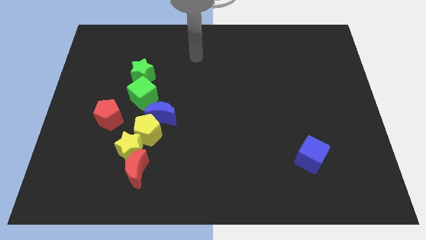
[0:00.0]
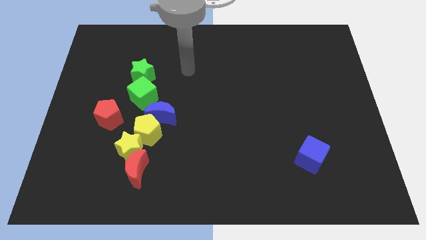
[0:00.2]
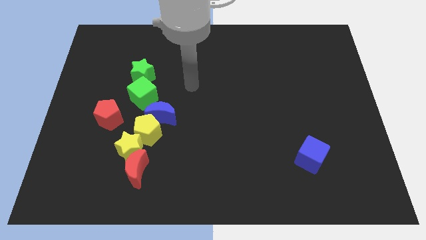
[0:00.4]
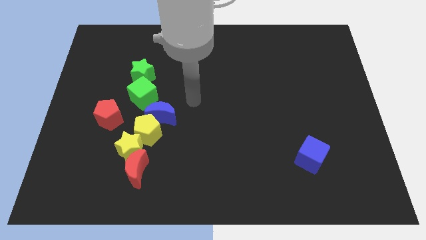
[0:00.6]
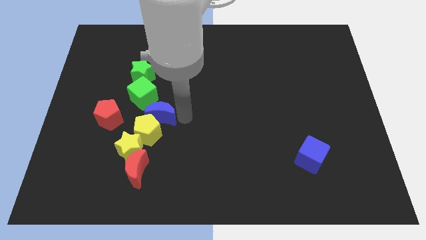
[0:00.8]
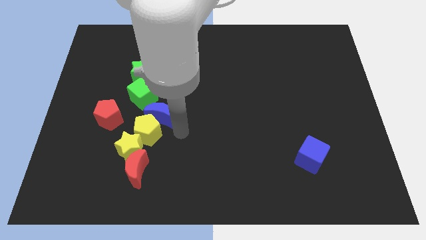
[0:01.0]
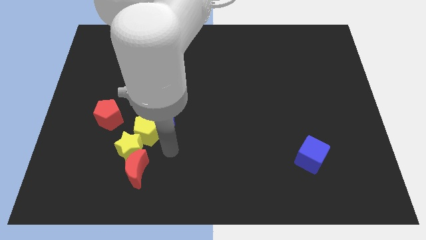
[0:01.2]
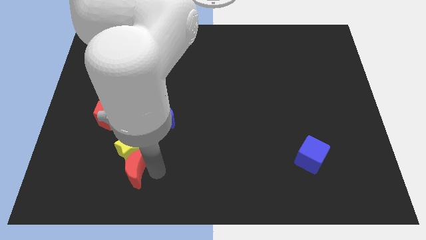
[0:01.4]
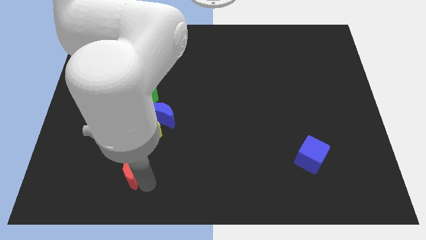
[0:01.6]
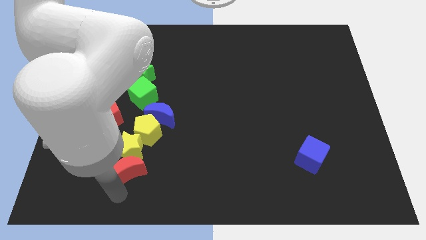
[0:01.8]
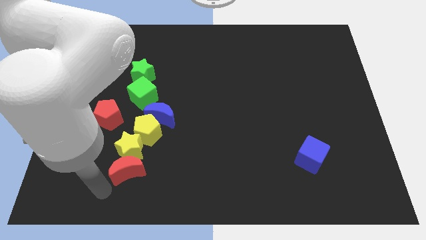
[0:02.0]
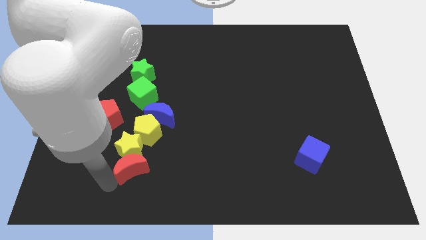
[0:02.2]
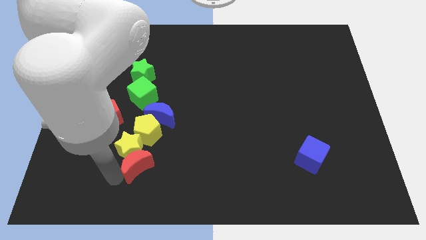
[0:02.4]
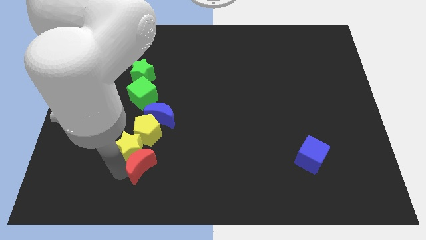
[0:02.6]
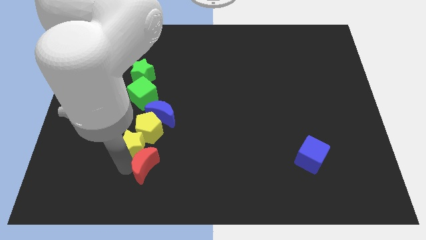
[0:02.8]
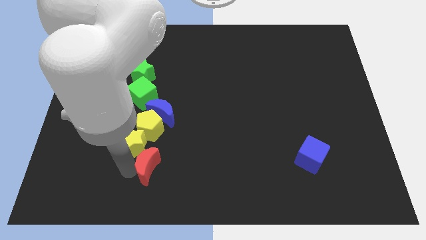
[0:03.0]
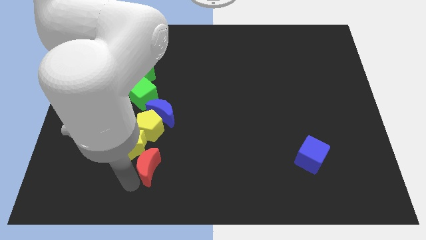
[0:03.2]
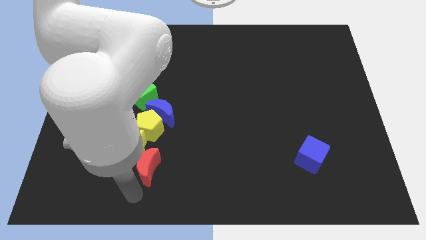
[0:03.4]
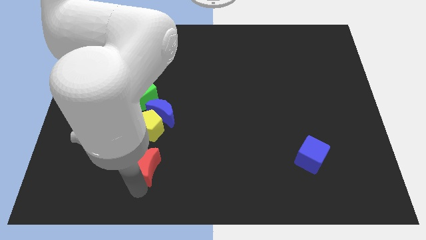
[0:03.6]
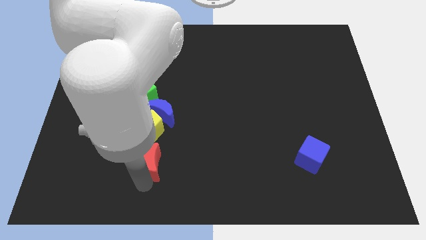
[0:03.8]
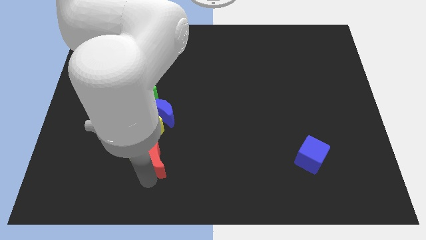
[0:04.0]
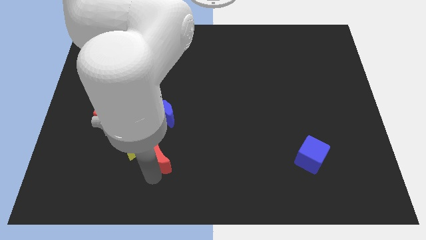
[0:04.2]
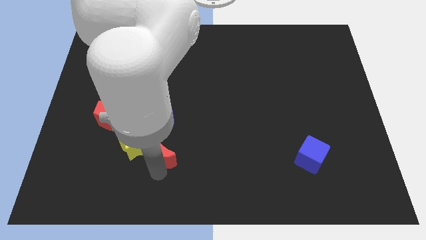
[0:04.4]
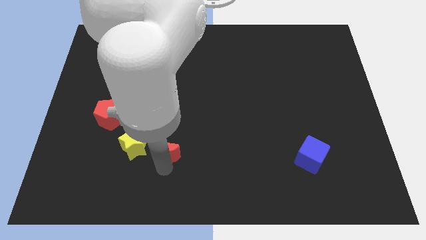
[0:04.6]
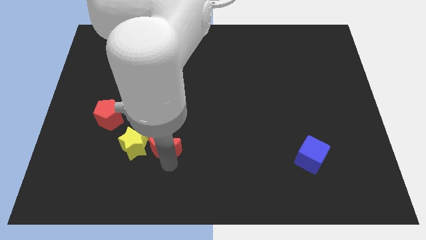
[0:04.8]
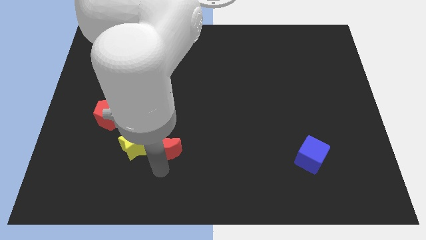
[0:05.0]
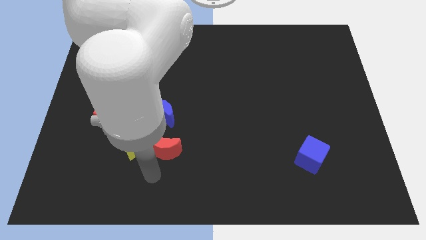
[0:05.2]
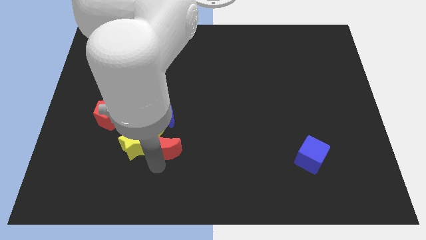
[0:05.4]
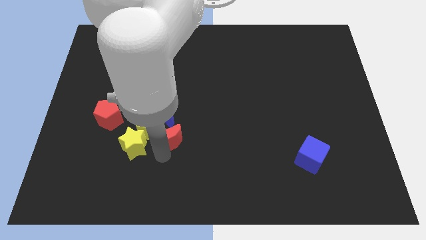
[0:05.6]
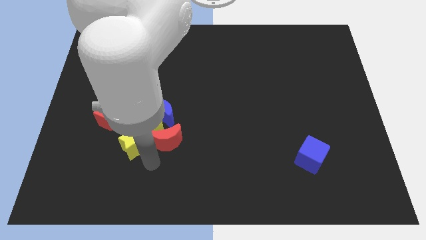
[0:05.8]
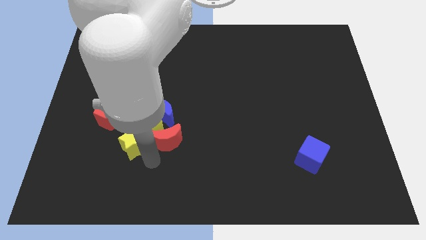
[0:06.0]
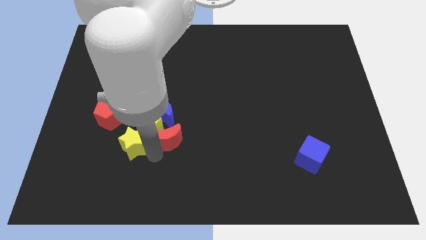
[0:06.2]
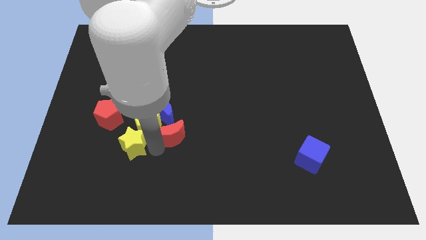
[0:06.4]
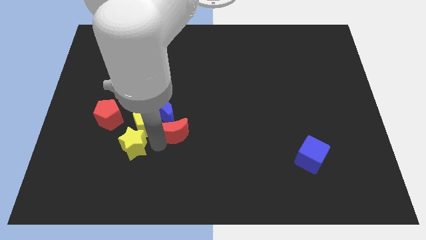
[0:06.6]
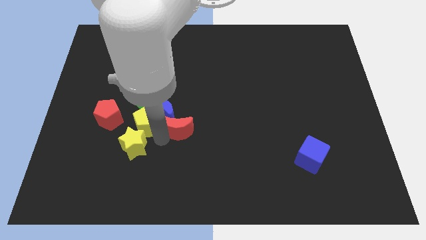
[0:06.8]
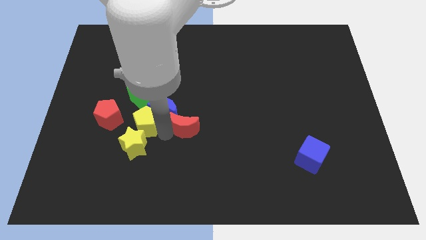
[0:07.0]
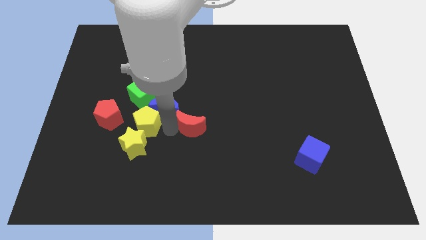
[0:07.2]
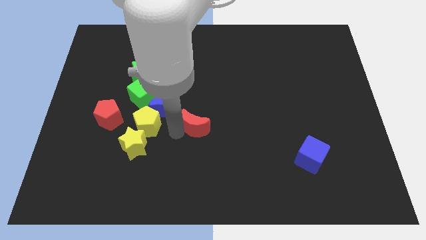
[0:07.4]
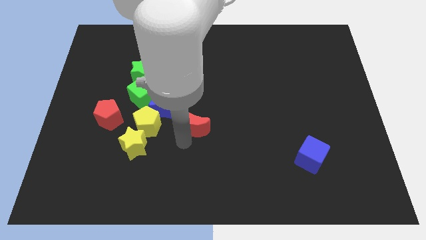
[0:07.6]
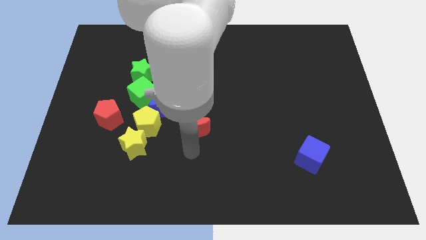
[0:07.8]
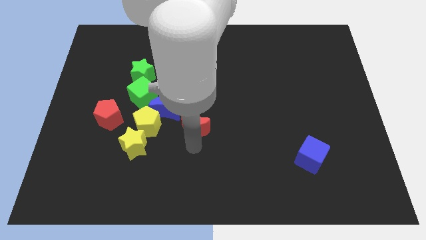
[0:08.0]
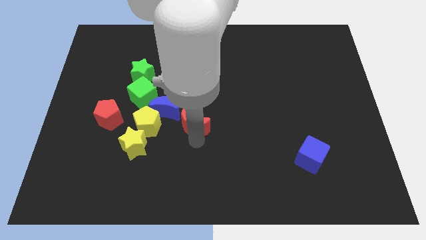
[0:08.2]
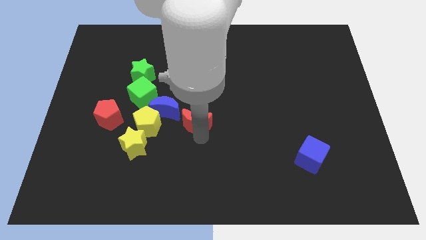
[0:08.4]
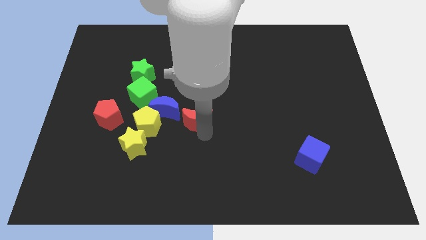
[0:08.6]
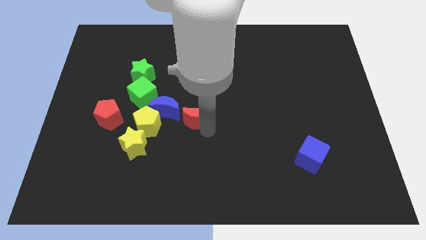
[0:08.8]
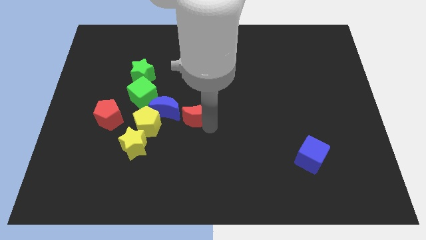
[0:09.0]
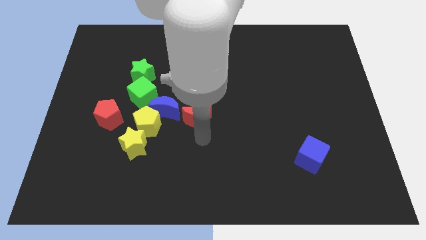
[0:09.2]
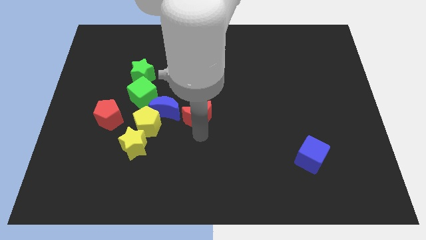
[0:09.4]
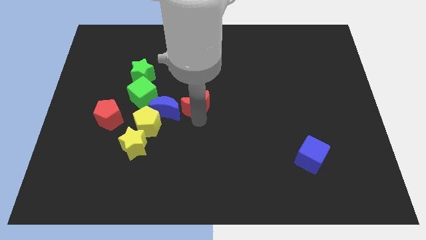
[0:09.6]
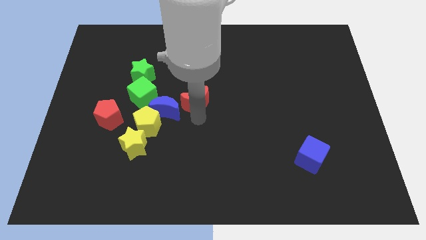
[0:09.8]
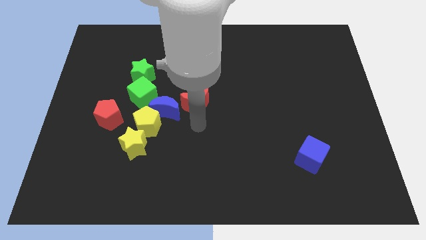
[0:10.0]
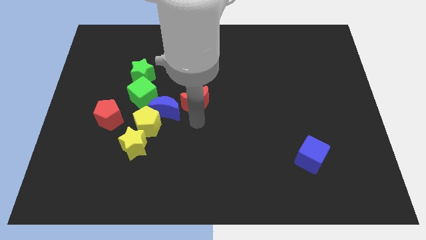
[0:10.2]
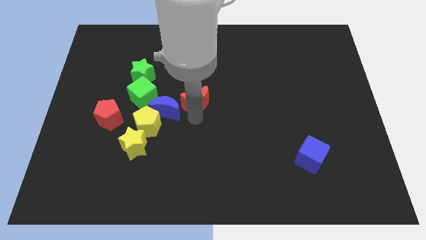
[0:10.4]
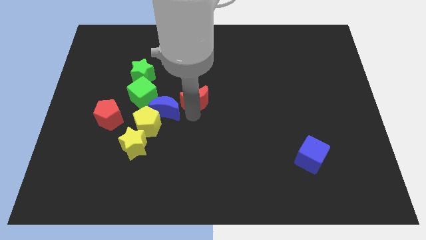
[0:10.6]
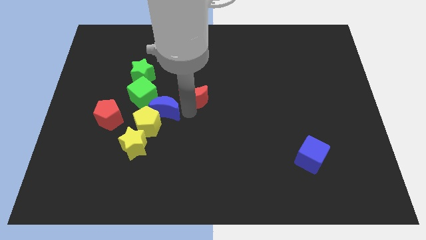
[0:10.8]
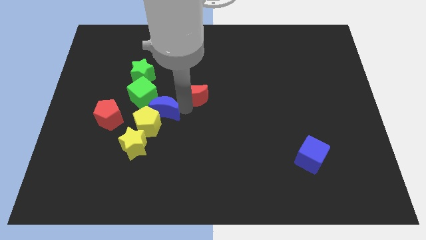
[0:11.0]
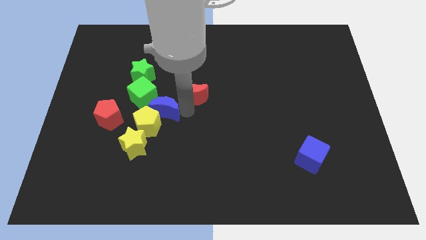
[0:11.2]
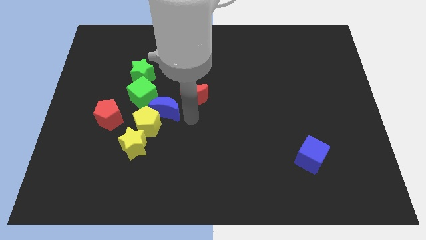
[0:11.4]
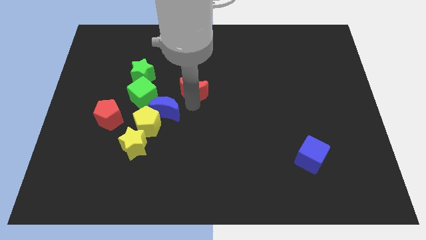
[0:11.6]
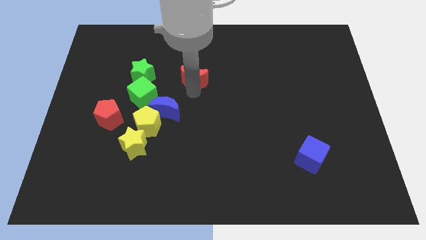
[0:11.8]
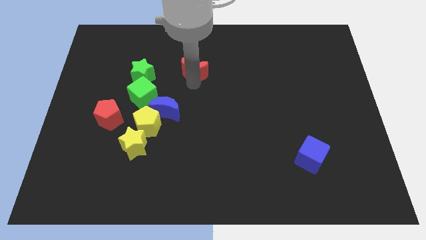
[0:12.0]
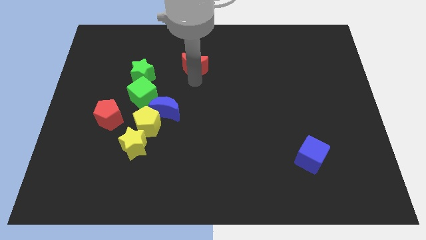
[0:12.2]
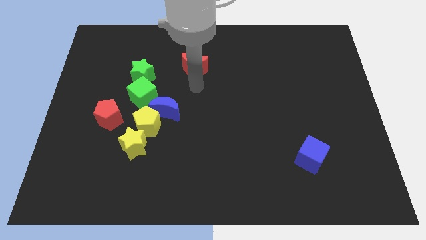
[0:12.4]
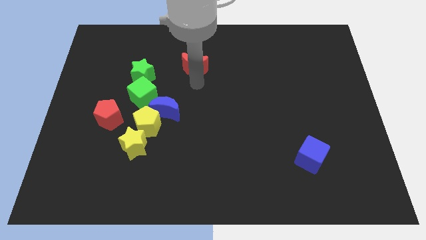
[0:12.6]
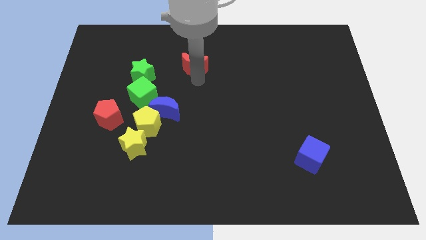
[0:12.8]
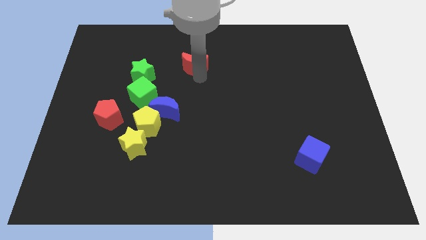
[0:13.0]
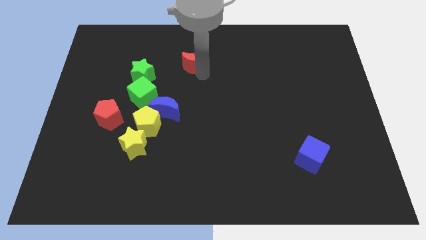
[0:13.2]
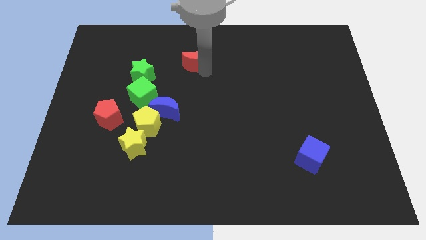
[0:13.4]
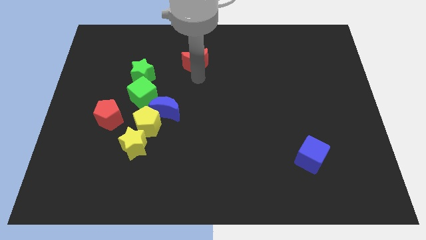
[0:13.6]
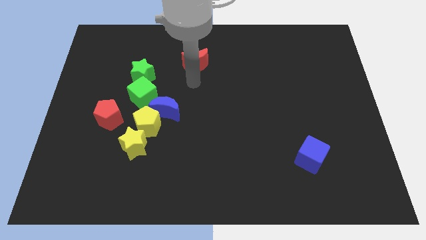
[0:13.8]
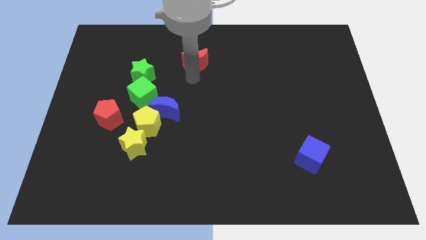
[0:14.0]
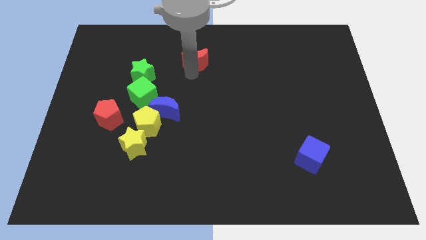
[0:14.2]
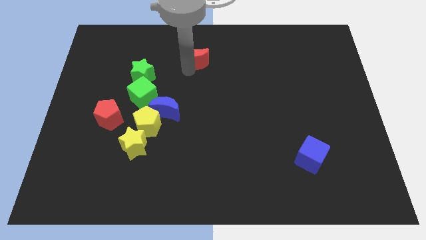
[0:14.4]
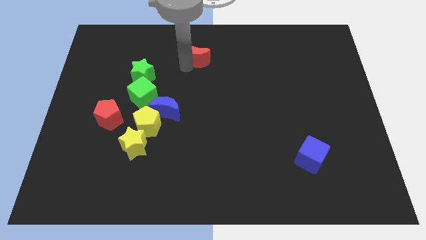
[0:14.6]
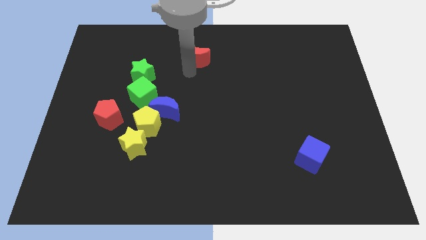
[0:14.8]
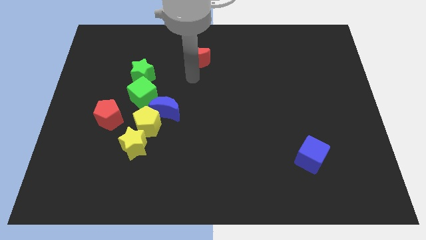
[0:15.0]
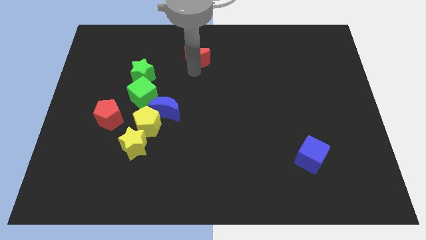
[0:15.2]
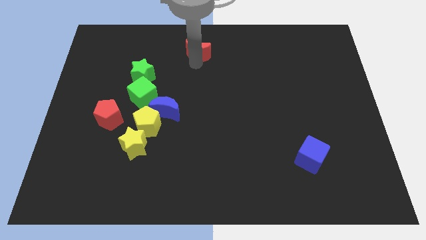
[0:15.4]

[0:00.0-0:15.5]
slide the red moon to the towards your base
